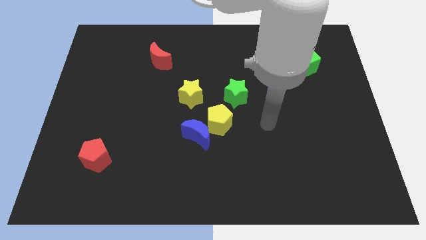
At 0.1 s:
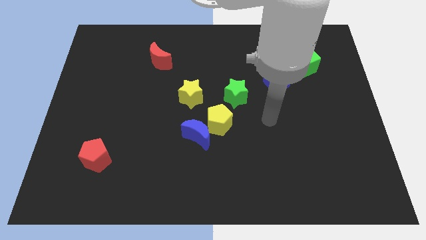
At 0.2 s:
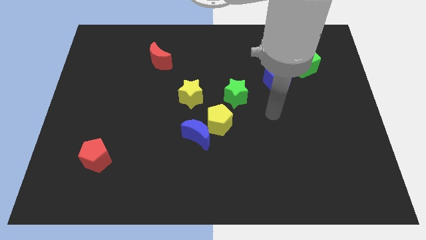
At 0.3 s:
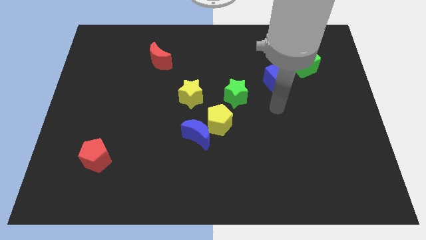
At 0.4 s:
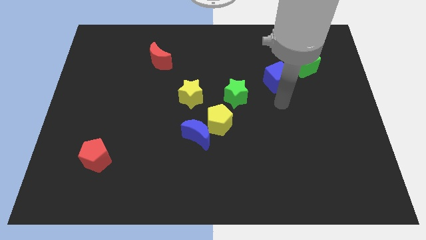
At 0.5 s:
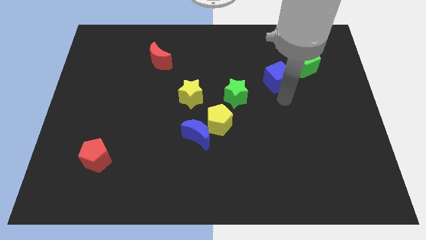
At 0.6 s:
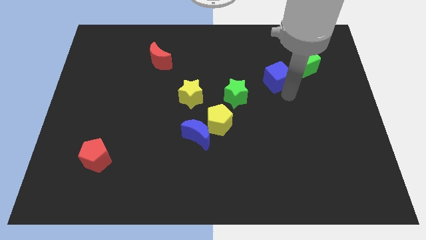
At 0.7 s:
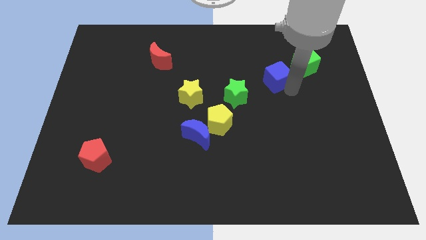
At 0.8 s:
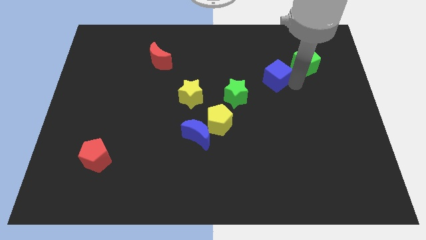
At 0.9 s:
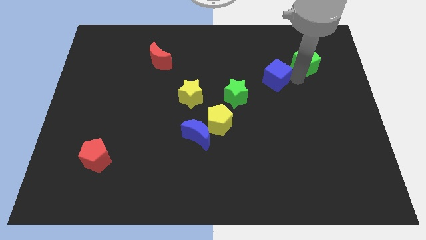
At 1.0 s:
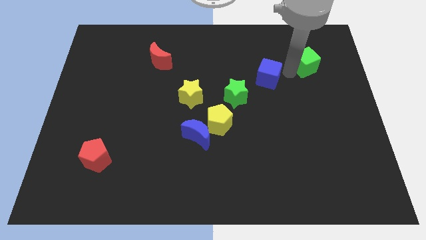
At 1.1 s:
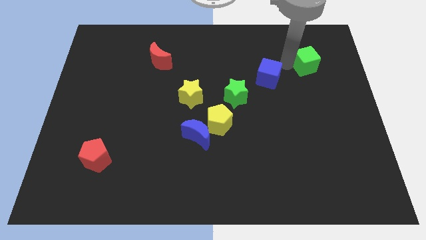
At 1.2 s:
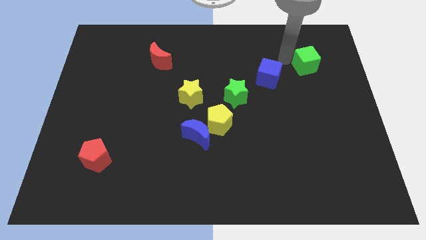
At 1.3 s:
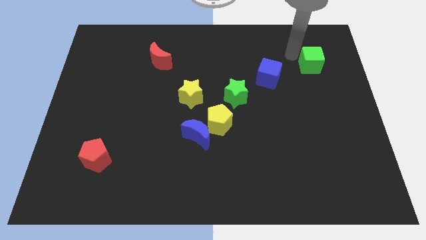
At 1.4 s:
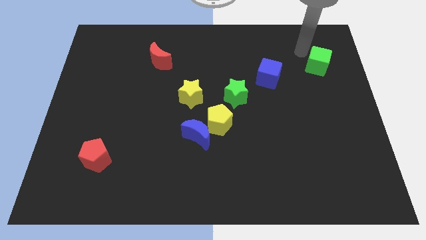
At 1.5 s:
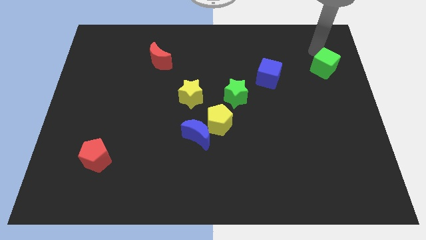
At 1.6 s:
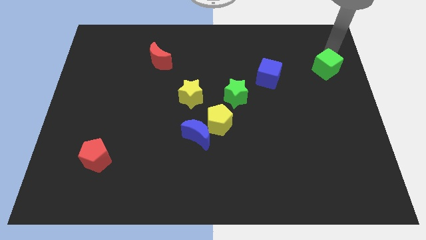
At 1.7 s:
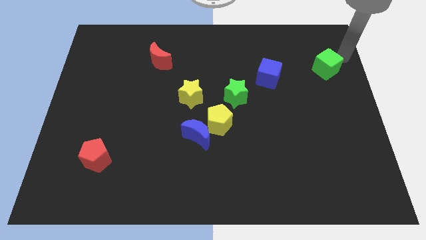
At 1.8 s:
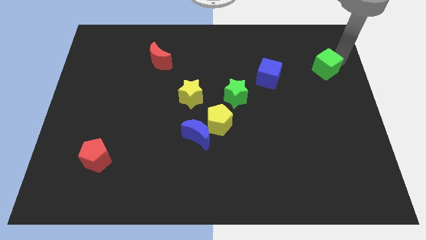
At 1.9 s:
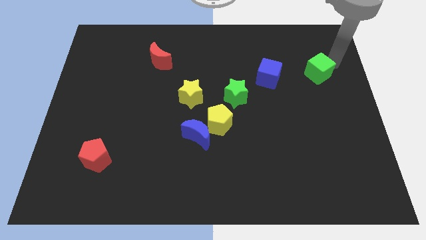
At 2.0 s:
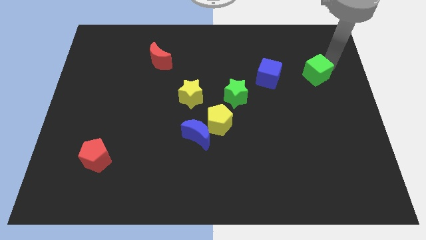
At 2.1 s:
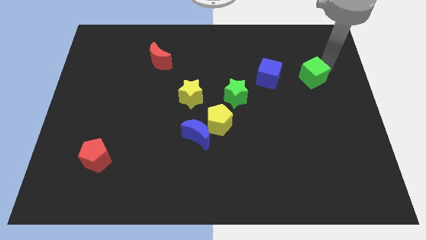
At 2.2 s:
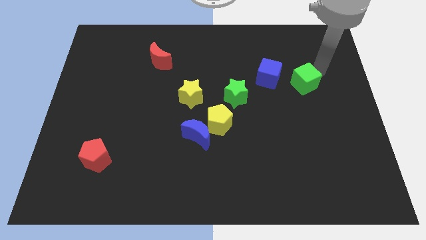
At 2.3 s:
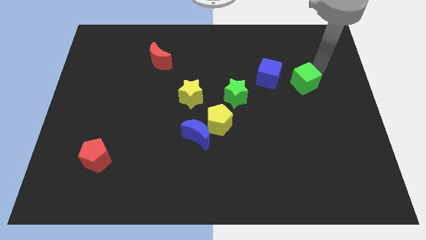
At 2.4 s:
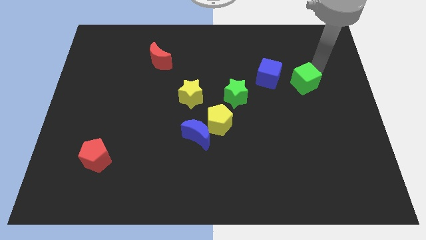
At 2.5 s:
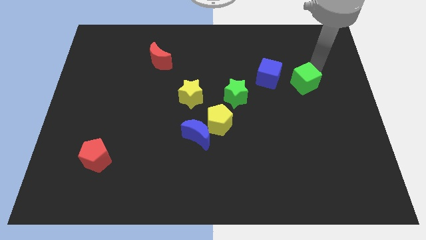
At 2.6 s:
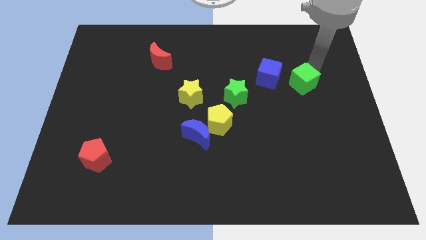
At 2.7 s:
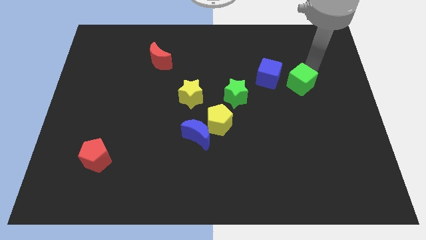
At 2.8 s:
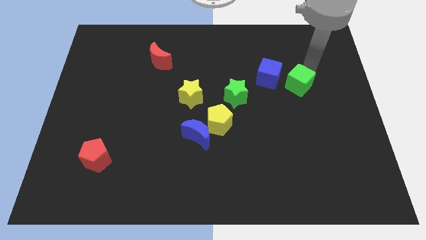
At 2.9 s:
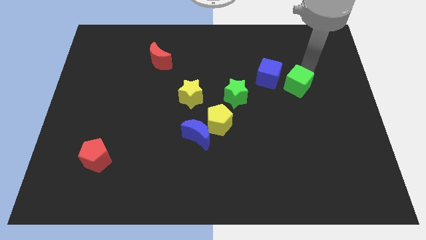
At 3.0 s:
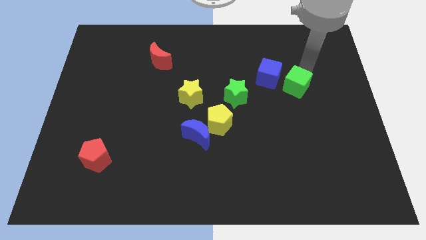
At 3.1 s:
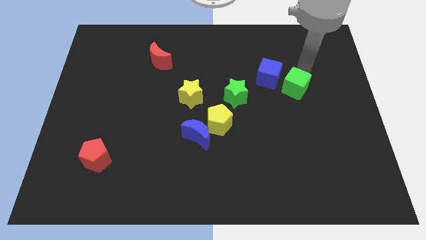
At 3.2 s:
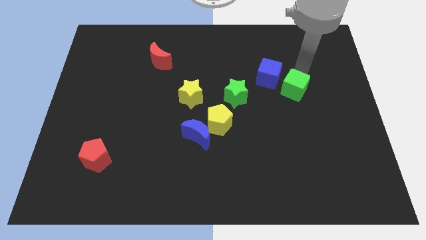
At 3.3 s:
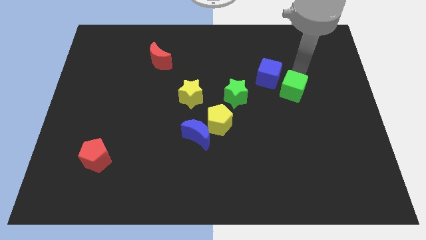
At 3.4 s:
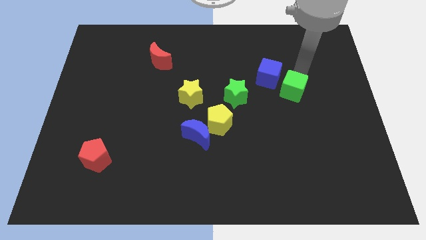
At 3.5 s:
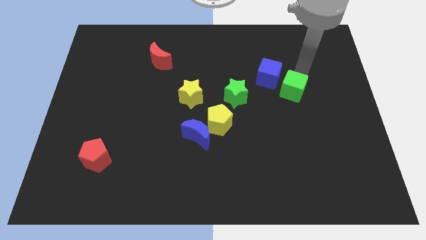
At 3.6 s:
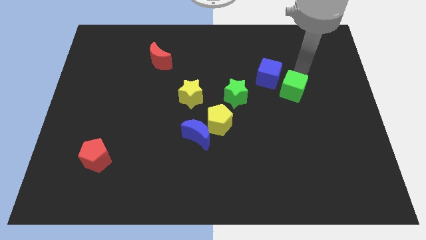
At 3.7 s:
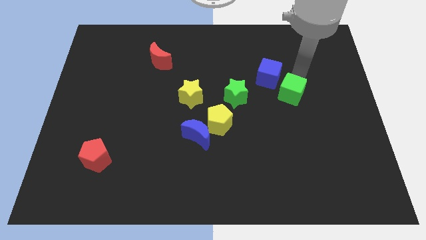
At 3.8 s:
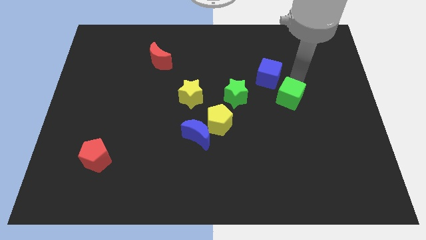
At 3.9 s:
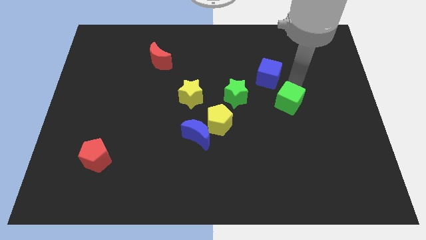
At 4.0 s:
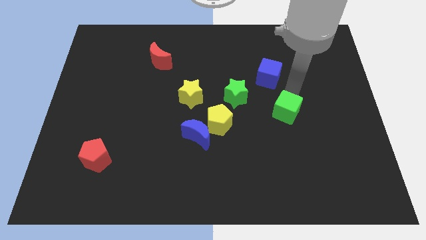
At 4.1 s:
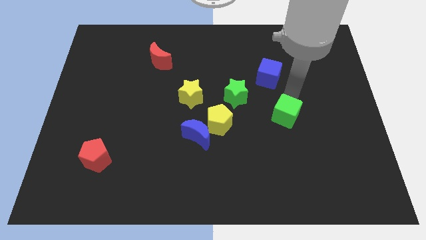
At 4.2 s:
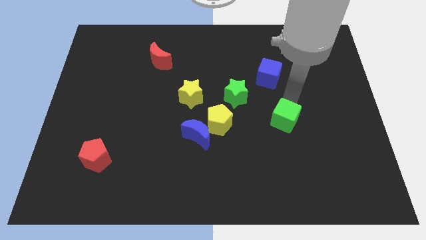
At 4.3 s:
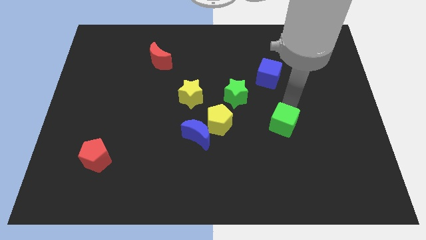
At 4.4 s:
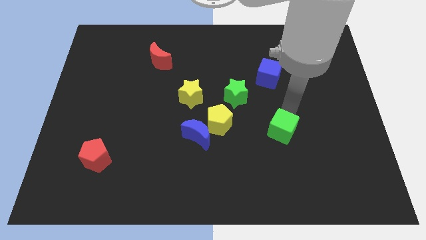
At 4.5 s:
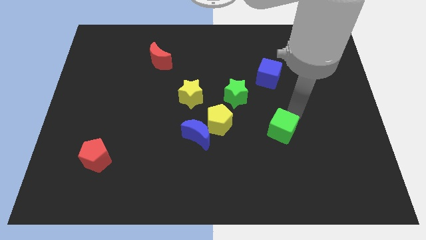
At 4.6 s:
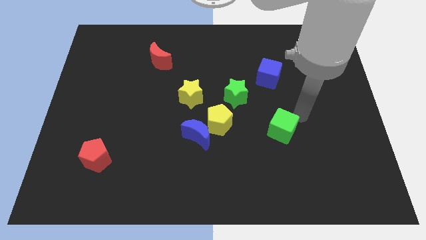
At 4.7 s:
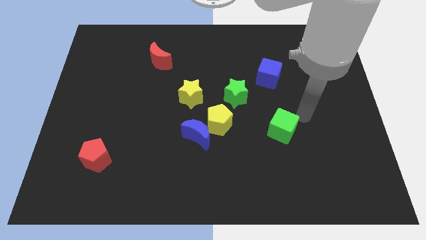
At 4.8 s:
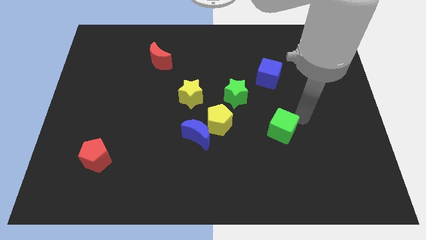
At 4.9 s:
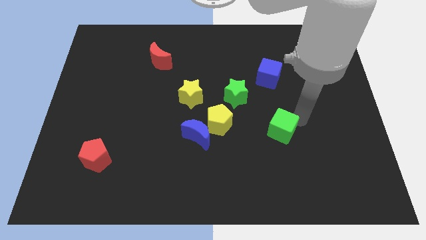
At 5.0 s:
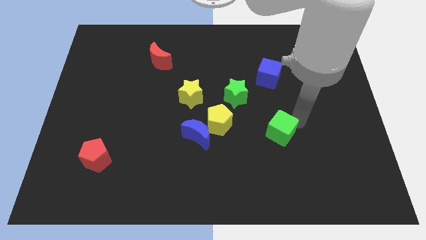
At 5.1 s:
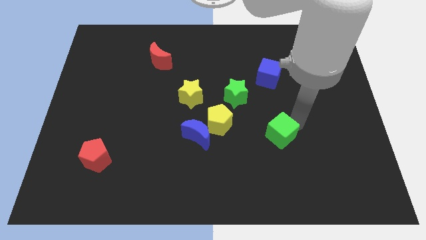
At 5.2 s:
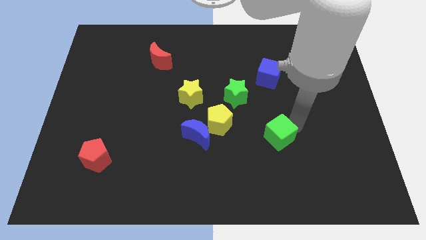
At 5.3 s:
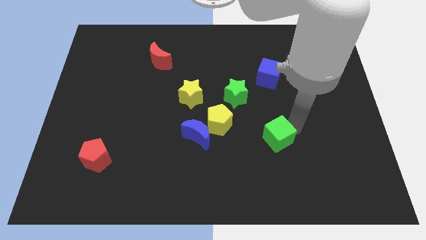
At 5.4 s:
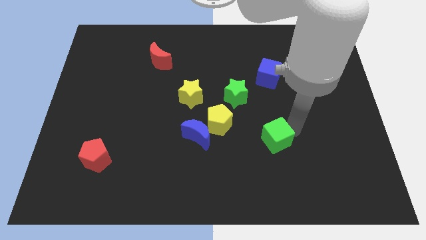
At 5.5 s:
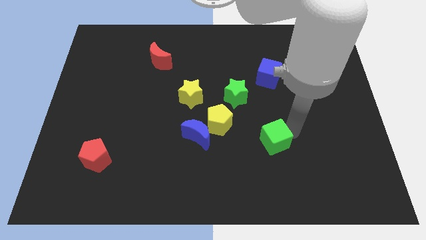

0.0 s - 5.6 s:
slide the green cube diagonally down and to the left

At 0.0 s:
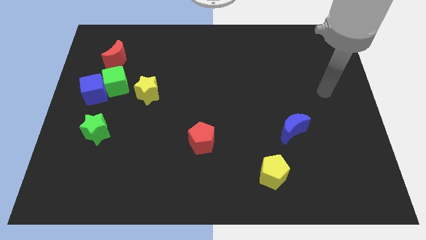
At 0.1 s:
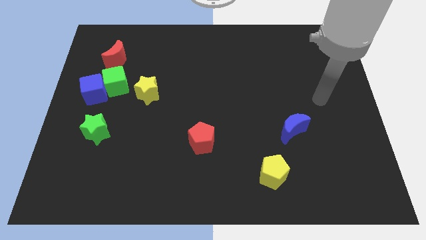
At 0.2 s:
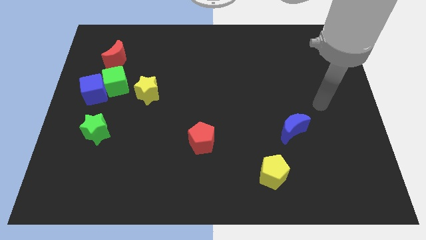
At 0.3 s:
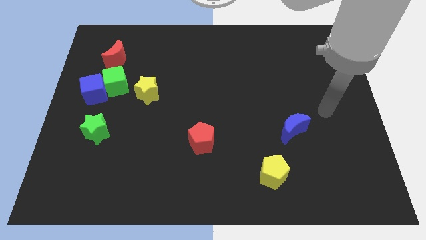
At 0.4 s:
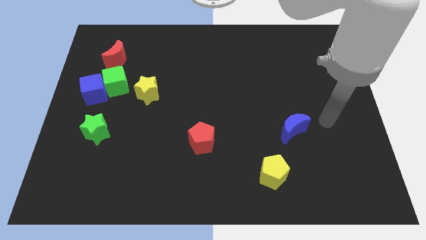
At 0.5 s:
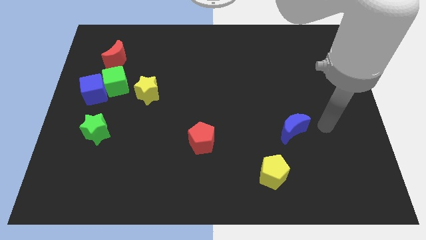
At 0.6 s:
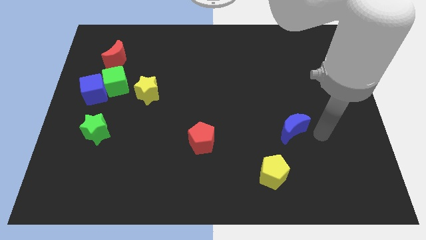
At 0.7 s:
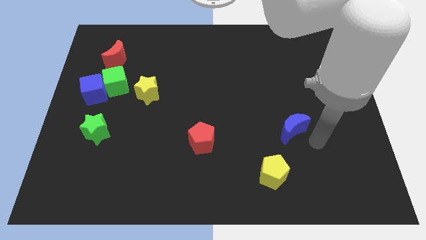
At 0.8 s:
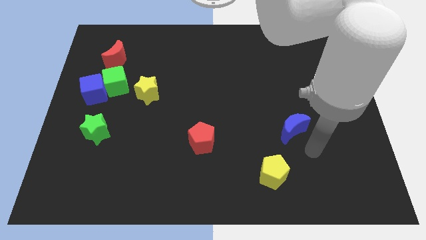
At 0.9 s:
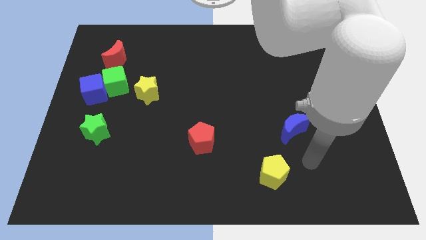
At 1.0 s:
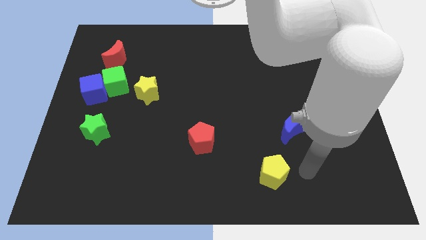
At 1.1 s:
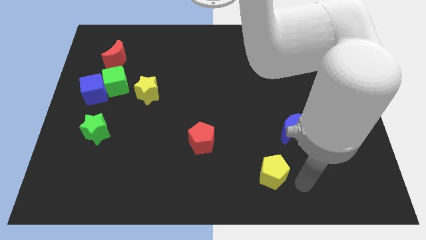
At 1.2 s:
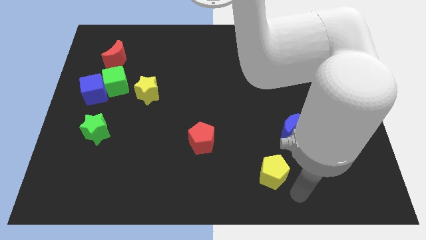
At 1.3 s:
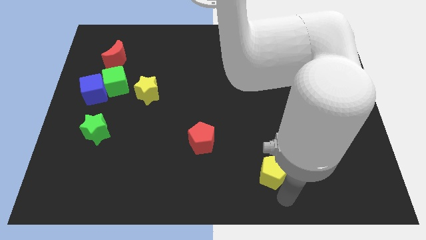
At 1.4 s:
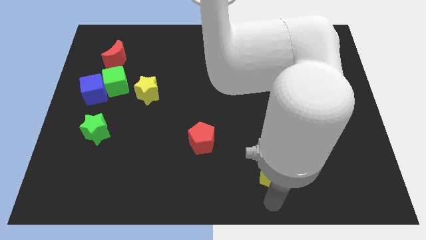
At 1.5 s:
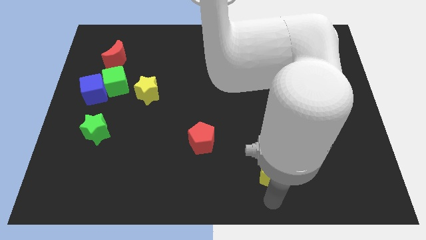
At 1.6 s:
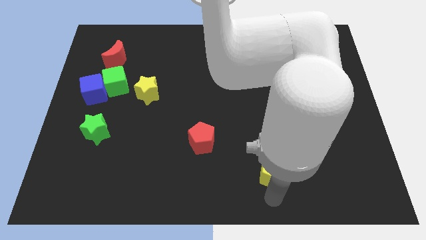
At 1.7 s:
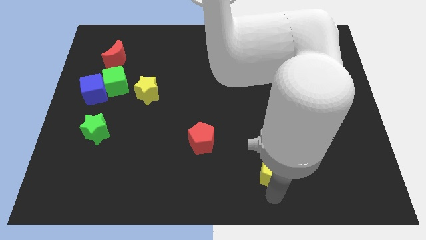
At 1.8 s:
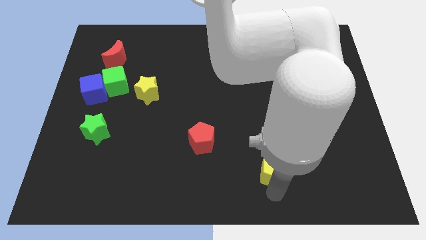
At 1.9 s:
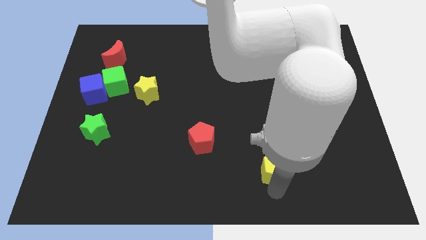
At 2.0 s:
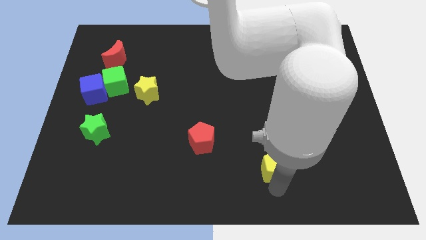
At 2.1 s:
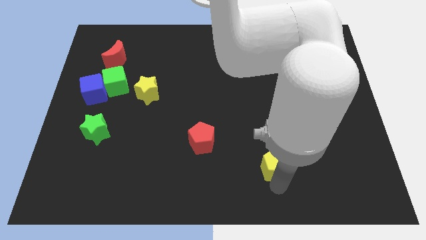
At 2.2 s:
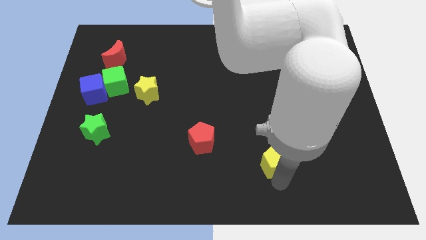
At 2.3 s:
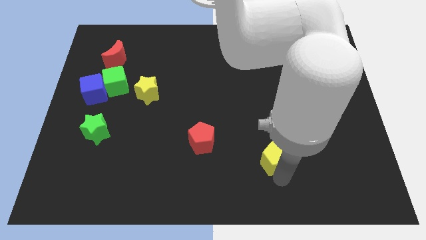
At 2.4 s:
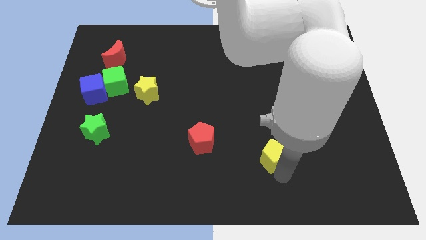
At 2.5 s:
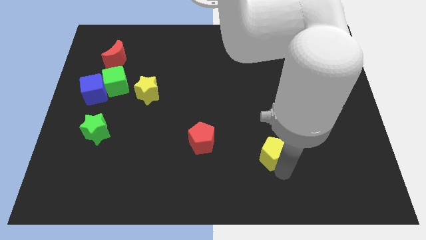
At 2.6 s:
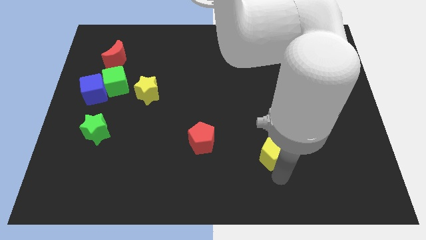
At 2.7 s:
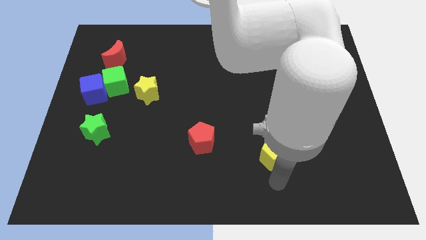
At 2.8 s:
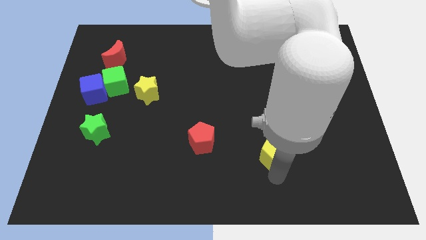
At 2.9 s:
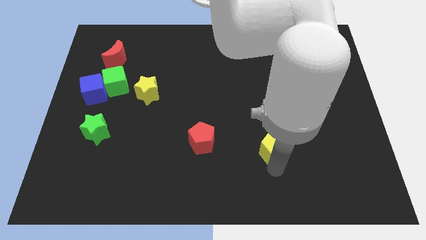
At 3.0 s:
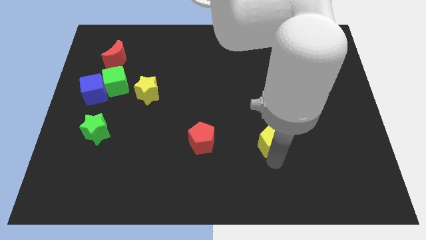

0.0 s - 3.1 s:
push the yellow pentagon upwards a bit
